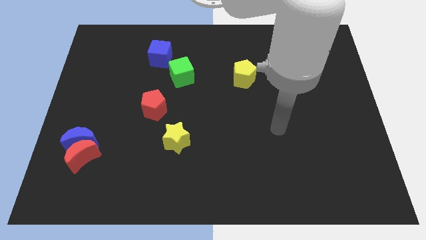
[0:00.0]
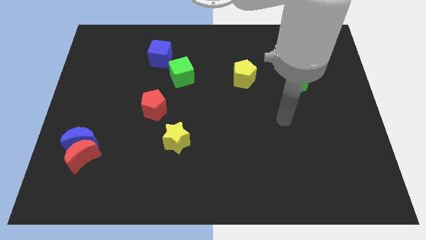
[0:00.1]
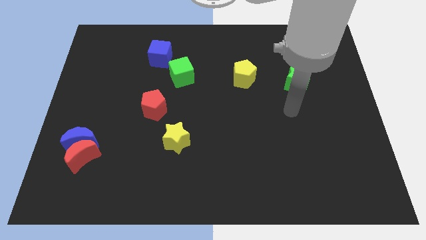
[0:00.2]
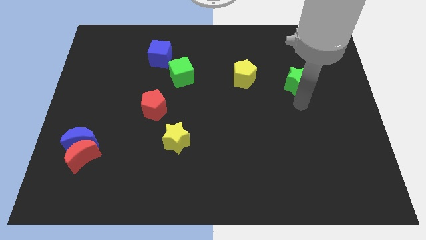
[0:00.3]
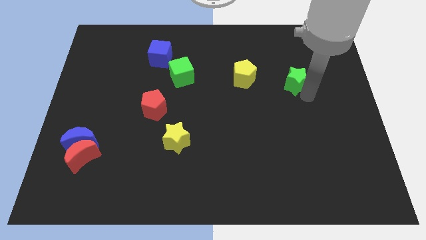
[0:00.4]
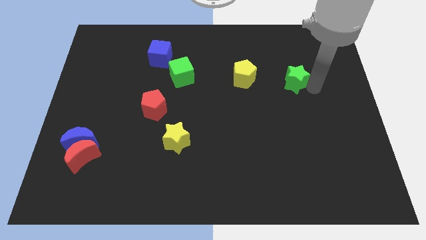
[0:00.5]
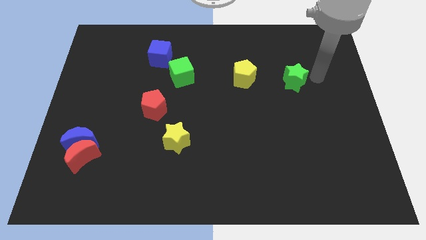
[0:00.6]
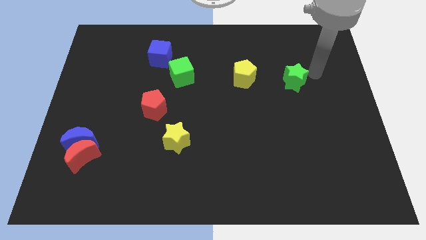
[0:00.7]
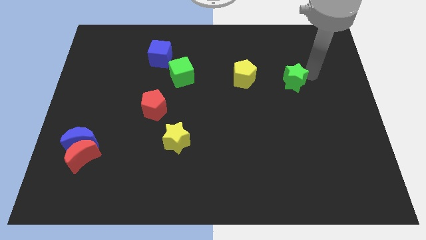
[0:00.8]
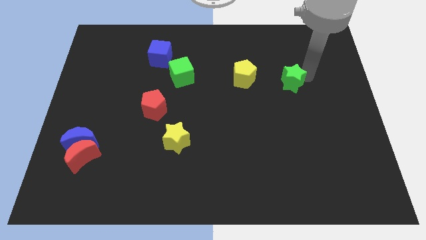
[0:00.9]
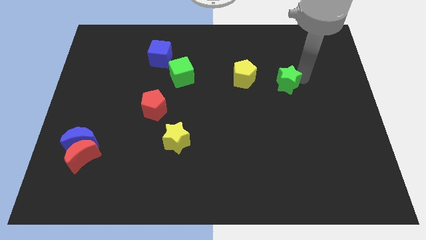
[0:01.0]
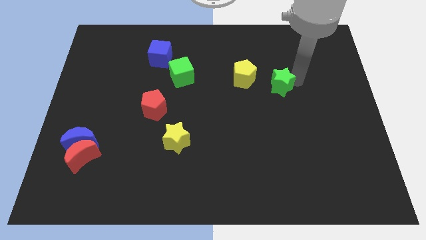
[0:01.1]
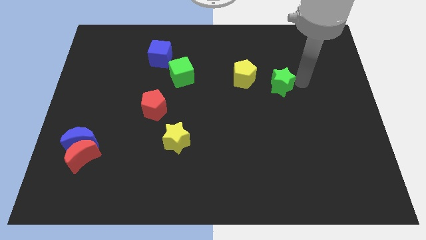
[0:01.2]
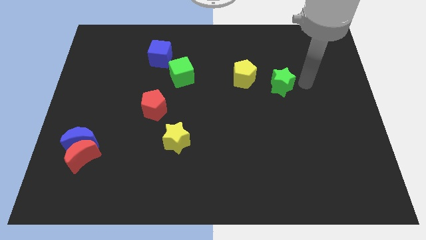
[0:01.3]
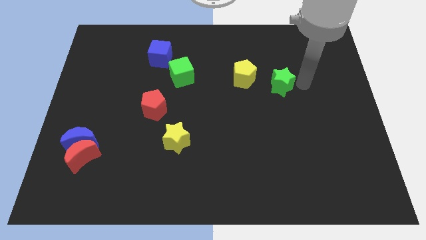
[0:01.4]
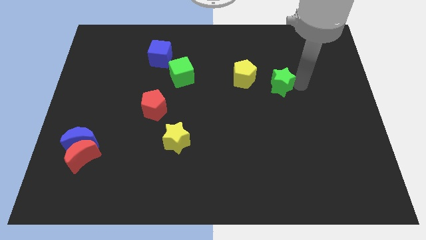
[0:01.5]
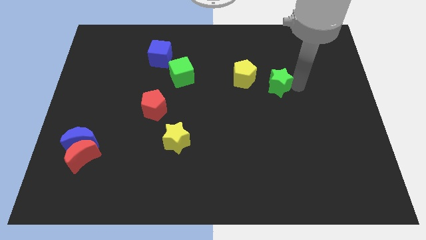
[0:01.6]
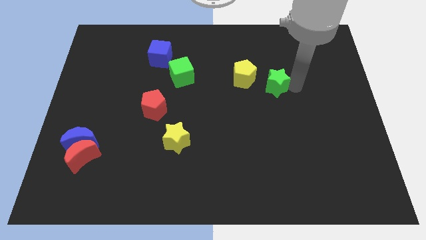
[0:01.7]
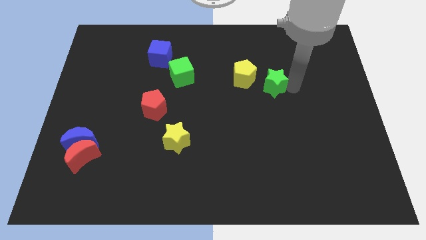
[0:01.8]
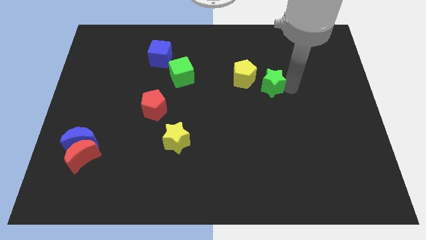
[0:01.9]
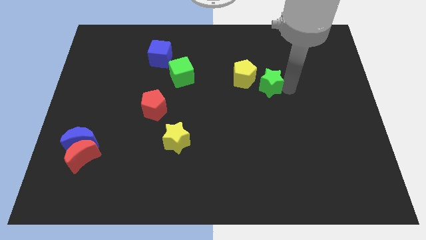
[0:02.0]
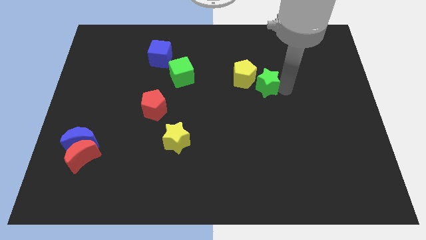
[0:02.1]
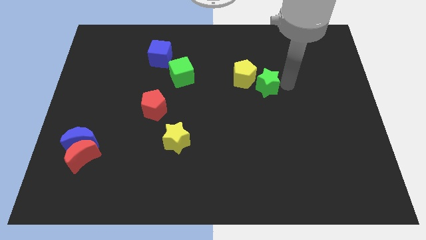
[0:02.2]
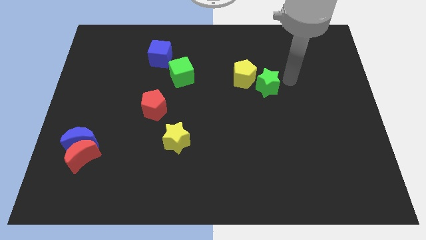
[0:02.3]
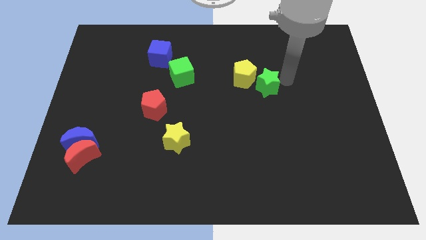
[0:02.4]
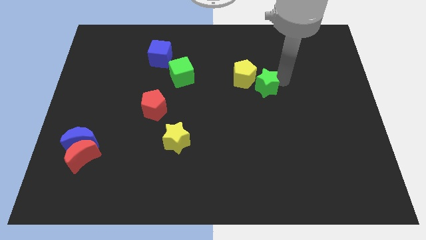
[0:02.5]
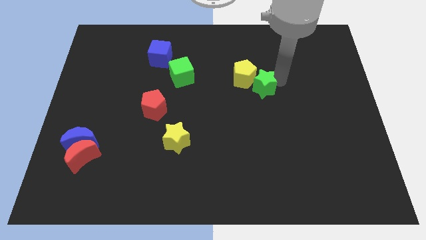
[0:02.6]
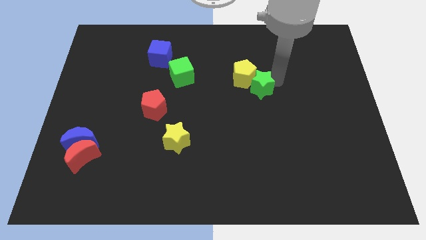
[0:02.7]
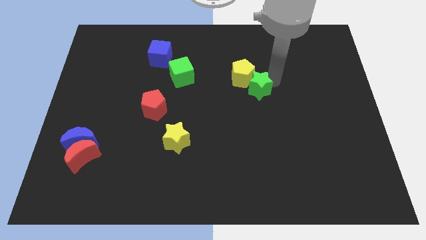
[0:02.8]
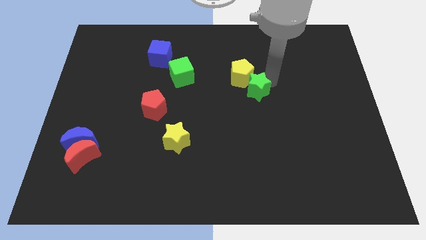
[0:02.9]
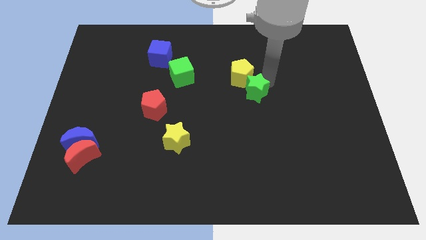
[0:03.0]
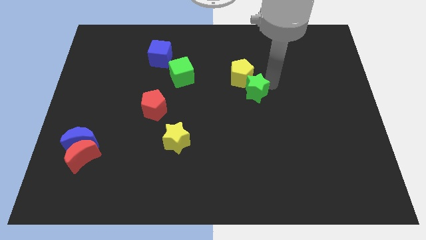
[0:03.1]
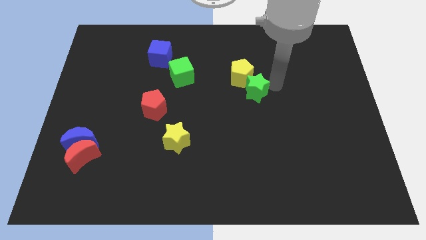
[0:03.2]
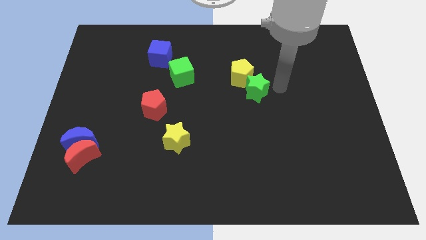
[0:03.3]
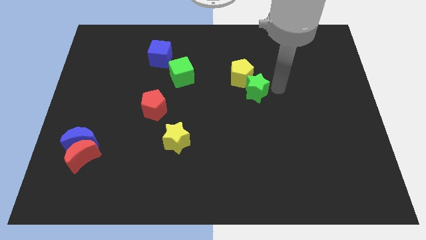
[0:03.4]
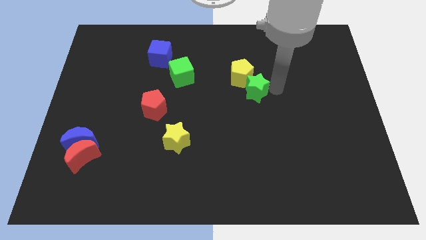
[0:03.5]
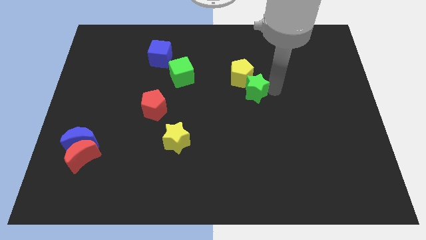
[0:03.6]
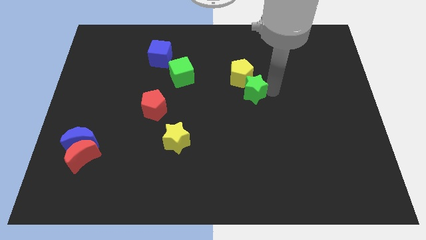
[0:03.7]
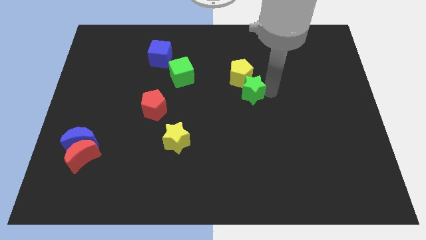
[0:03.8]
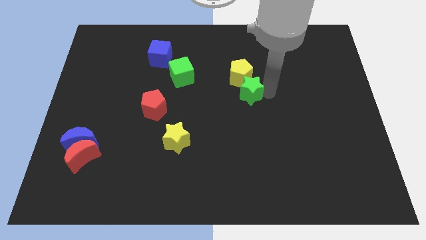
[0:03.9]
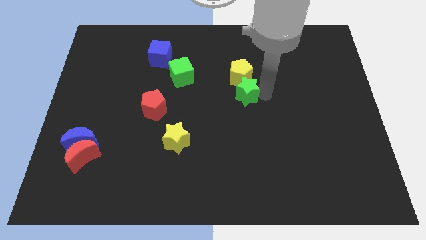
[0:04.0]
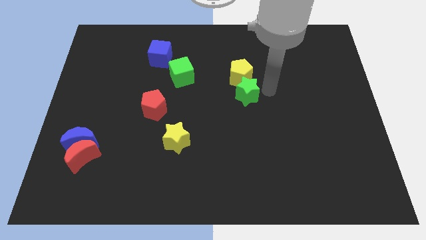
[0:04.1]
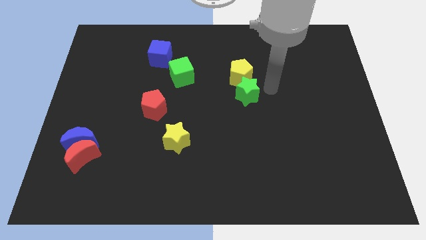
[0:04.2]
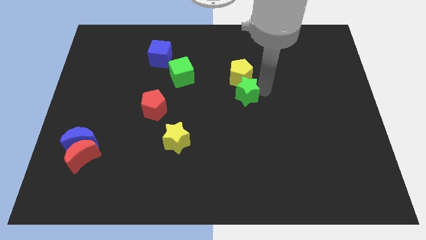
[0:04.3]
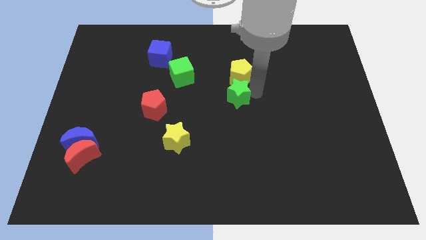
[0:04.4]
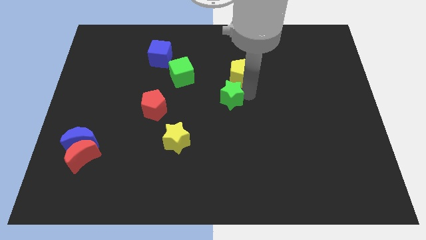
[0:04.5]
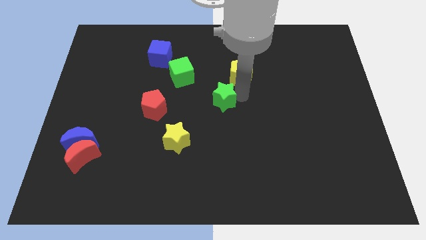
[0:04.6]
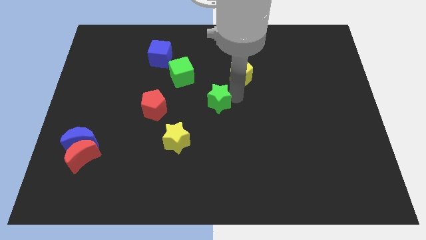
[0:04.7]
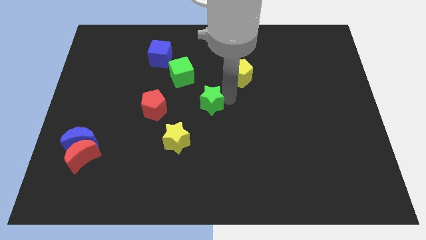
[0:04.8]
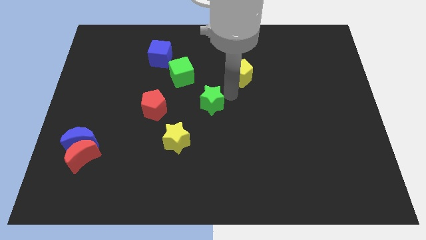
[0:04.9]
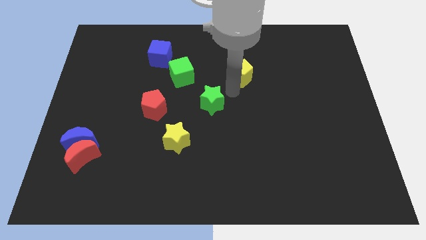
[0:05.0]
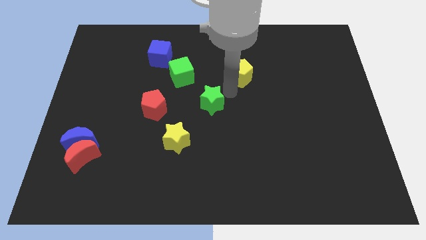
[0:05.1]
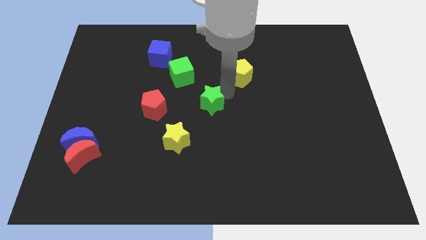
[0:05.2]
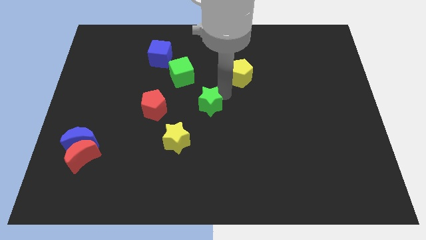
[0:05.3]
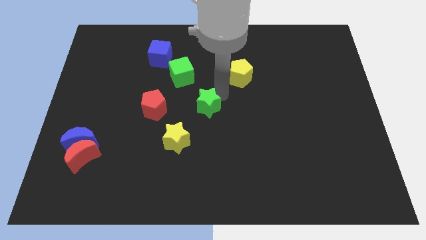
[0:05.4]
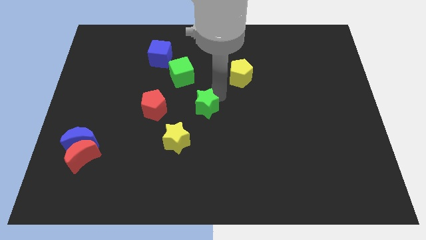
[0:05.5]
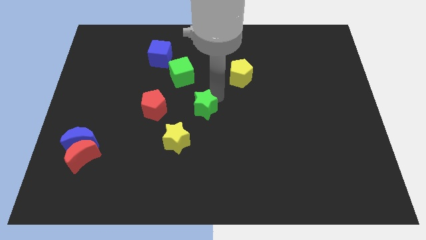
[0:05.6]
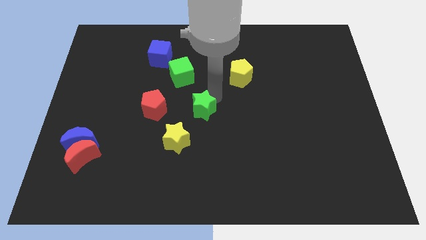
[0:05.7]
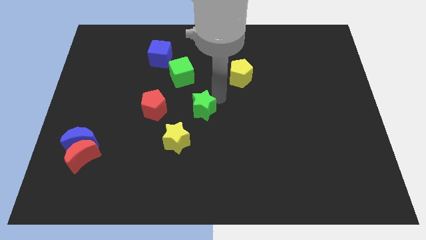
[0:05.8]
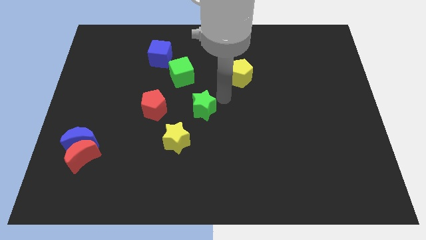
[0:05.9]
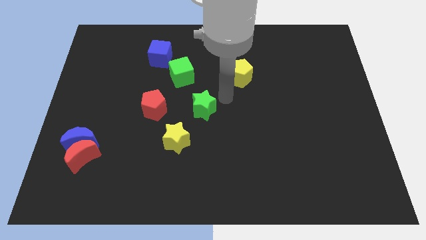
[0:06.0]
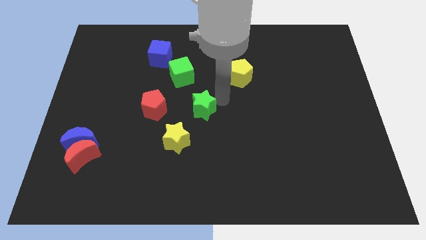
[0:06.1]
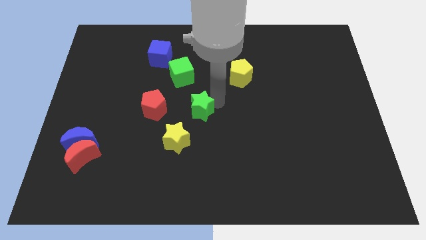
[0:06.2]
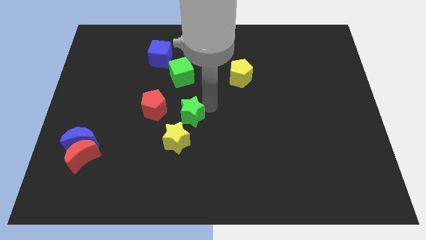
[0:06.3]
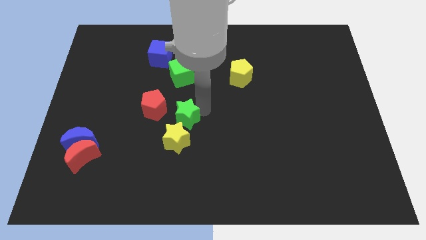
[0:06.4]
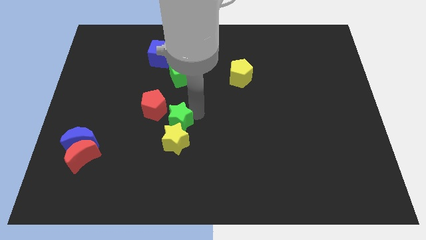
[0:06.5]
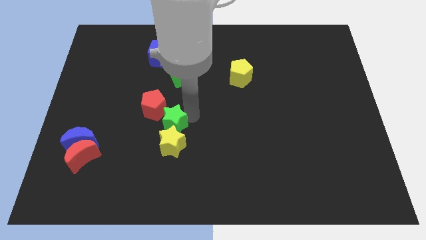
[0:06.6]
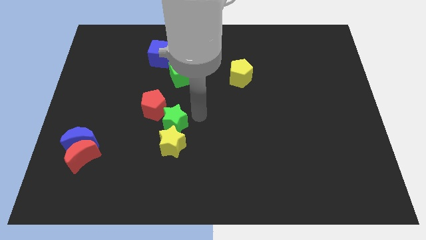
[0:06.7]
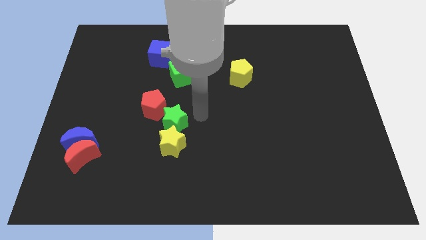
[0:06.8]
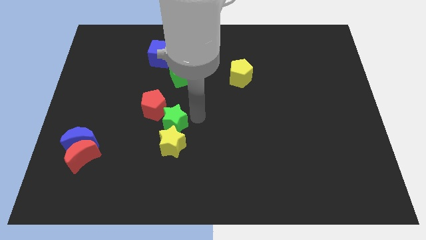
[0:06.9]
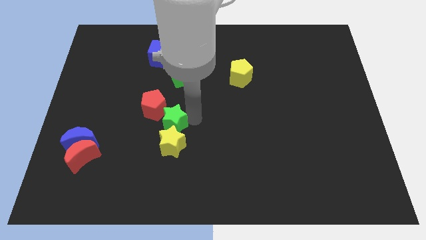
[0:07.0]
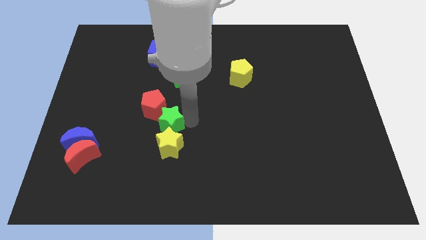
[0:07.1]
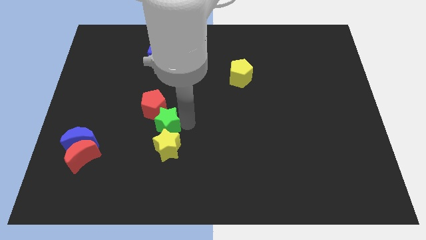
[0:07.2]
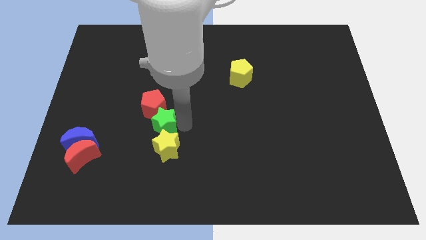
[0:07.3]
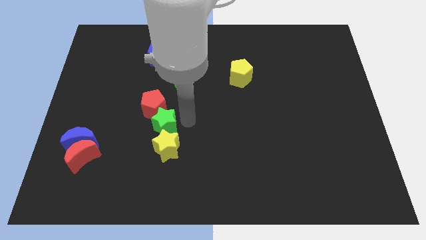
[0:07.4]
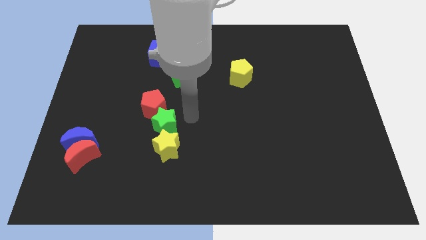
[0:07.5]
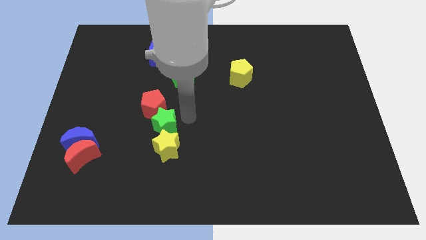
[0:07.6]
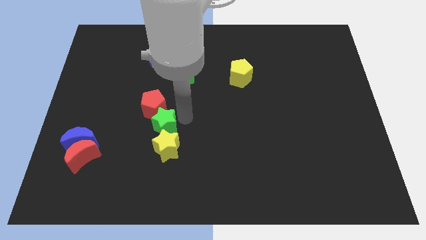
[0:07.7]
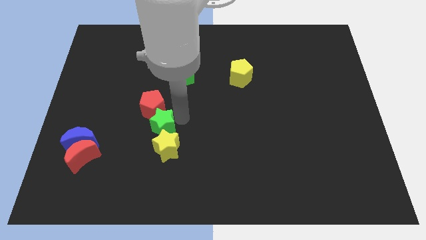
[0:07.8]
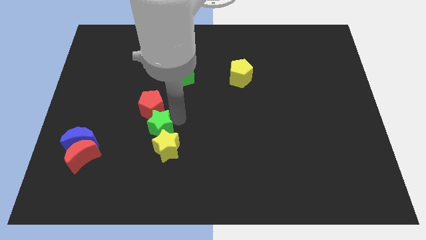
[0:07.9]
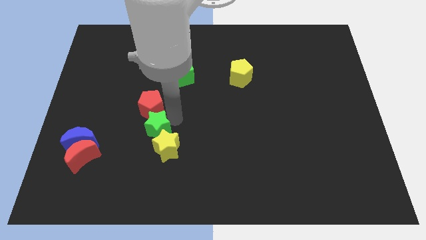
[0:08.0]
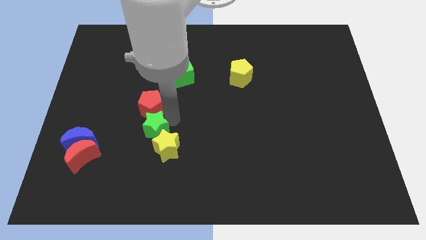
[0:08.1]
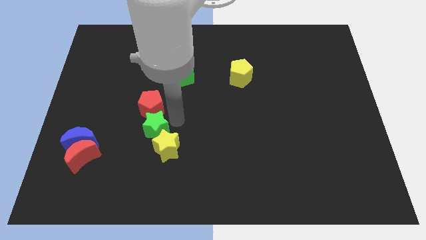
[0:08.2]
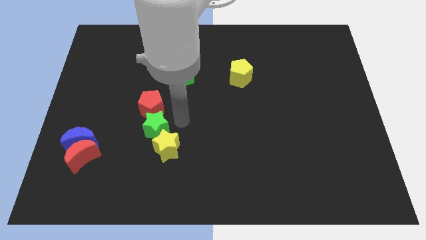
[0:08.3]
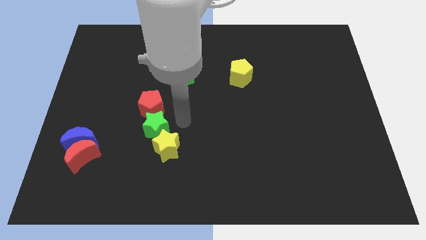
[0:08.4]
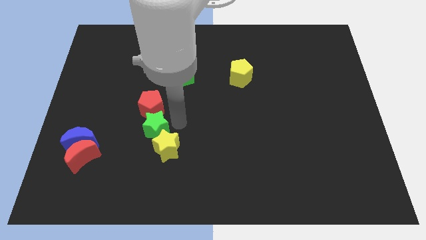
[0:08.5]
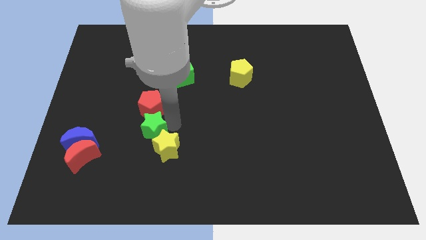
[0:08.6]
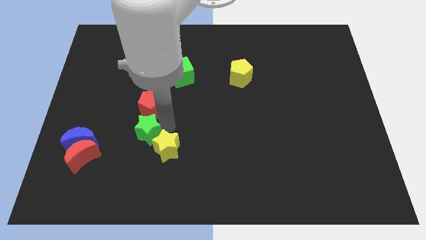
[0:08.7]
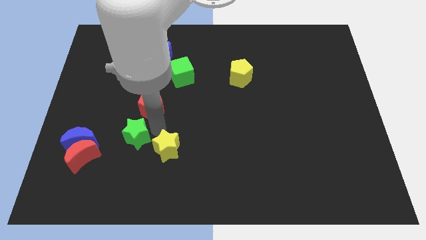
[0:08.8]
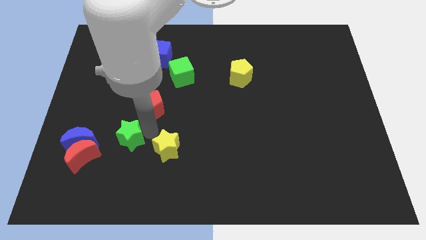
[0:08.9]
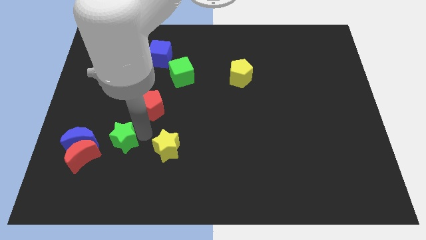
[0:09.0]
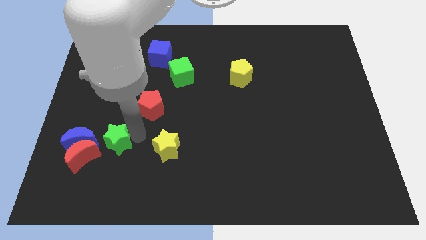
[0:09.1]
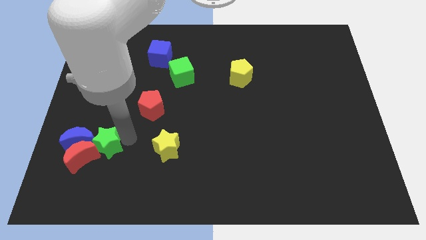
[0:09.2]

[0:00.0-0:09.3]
slide the green star towards the red moon
